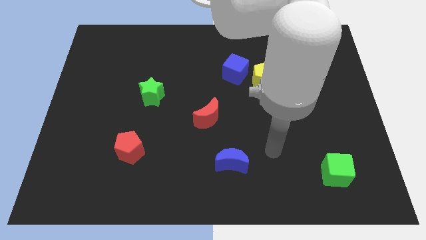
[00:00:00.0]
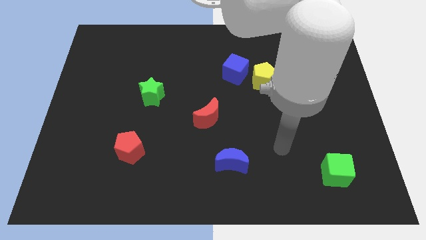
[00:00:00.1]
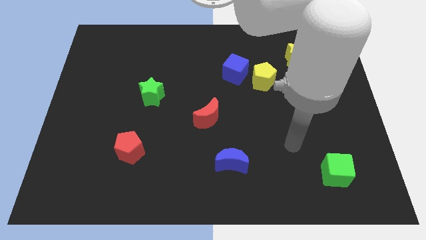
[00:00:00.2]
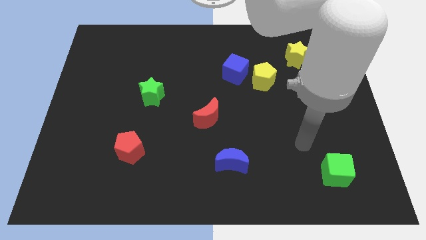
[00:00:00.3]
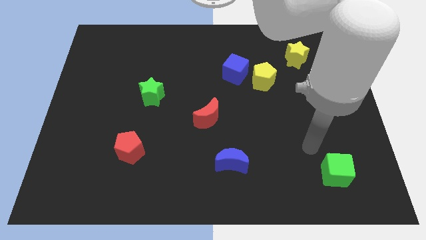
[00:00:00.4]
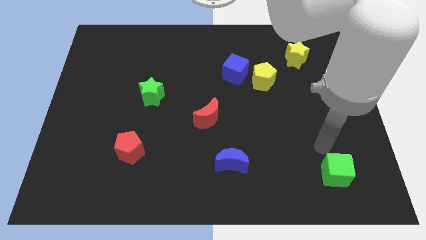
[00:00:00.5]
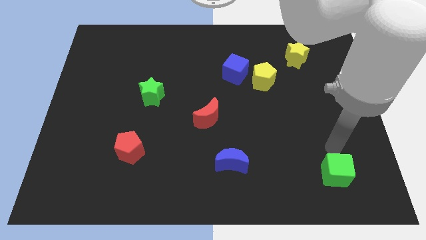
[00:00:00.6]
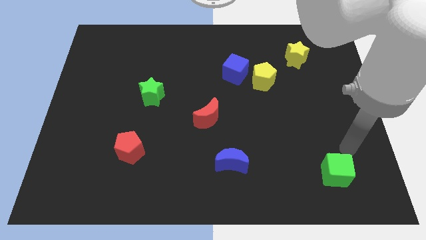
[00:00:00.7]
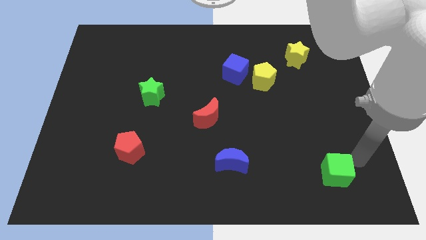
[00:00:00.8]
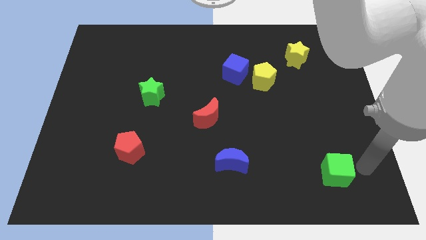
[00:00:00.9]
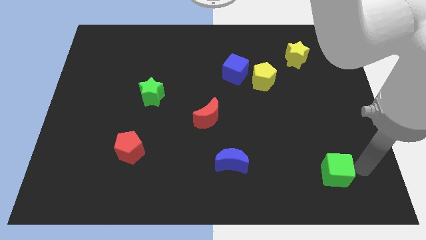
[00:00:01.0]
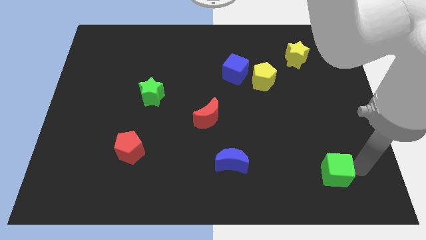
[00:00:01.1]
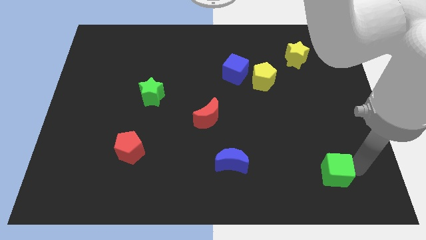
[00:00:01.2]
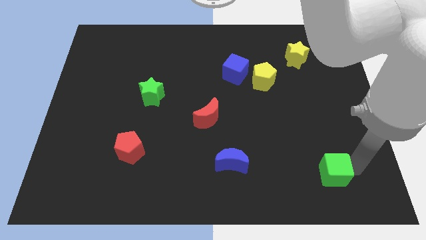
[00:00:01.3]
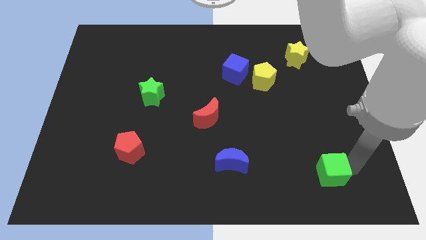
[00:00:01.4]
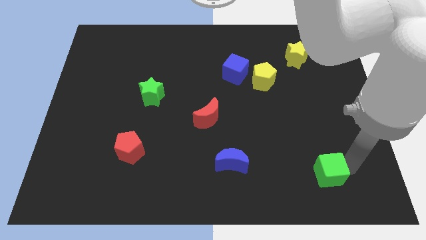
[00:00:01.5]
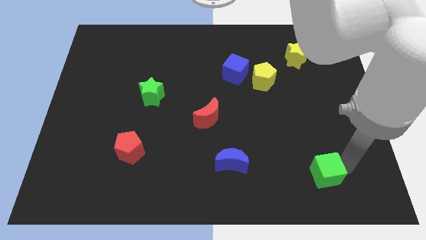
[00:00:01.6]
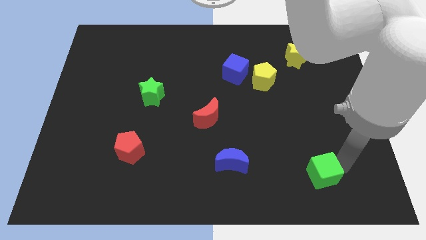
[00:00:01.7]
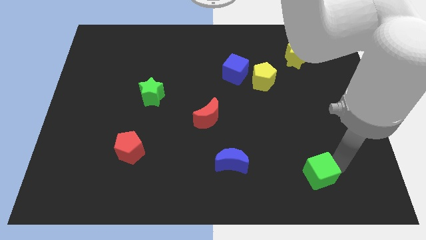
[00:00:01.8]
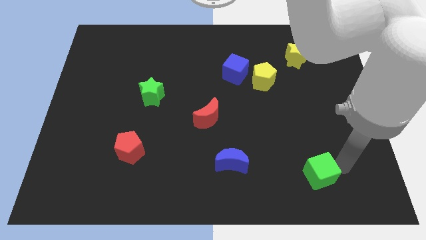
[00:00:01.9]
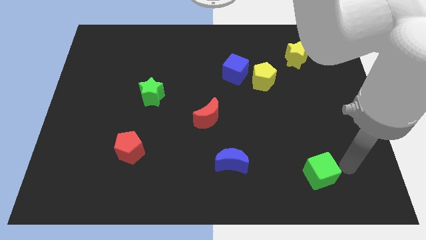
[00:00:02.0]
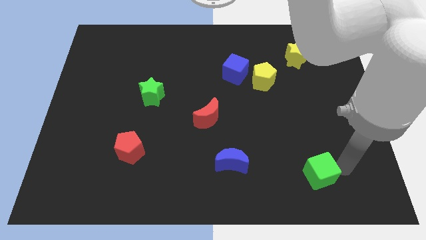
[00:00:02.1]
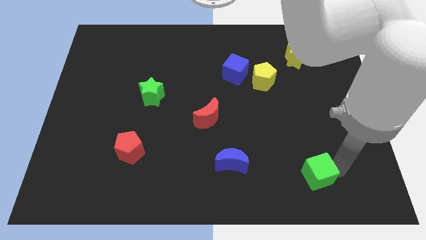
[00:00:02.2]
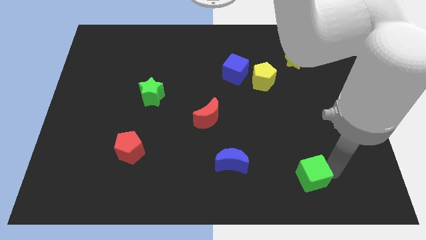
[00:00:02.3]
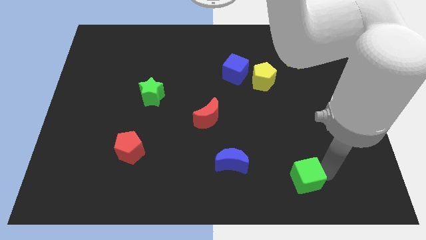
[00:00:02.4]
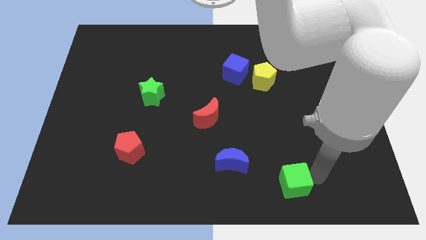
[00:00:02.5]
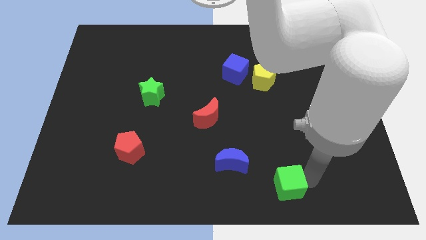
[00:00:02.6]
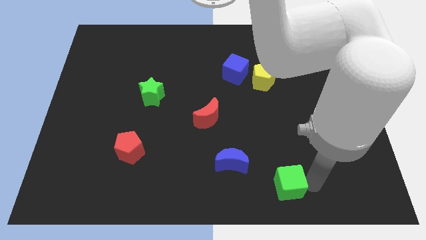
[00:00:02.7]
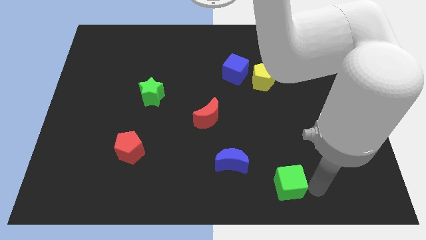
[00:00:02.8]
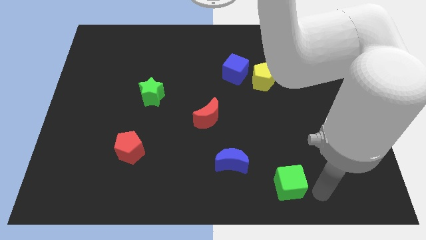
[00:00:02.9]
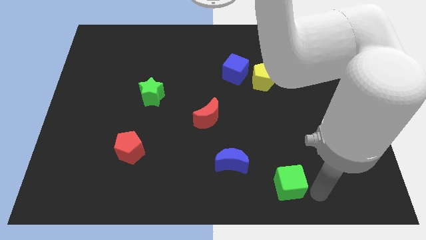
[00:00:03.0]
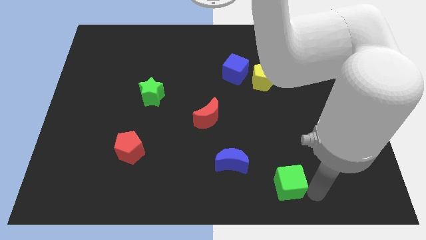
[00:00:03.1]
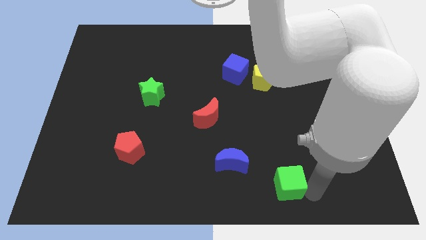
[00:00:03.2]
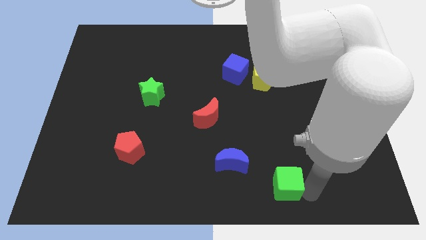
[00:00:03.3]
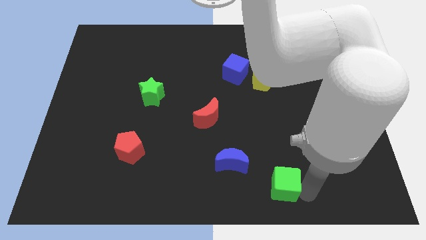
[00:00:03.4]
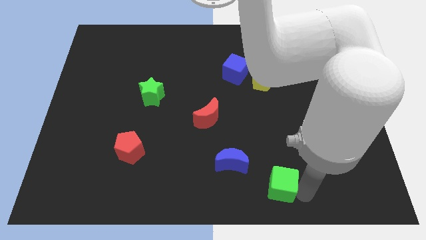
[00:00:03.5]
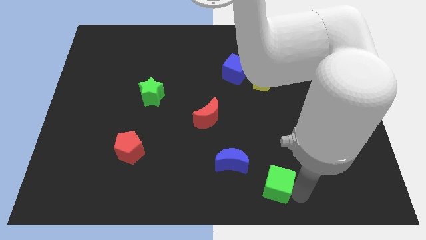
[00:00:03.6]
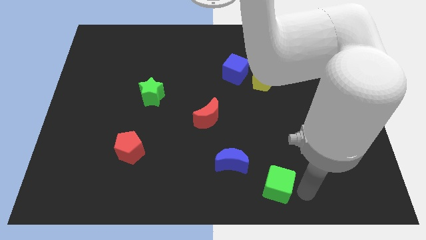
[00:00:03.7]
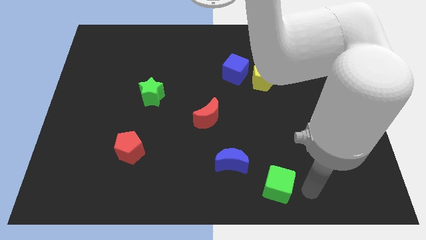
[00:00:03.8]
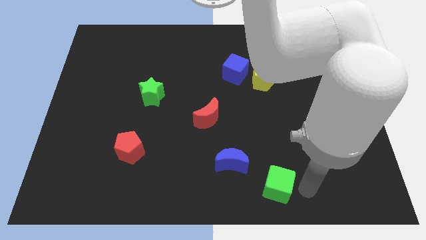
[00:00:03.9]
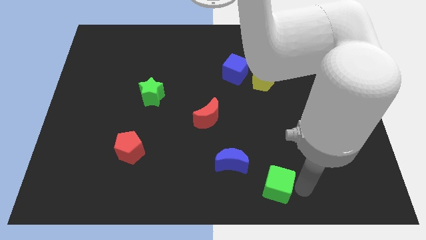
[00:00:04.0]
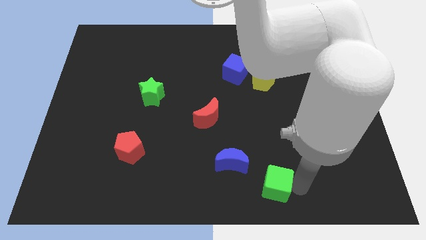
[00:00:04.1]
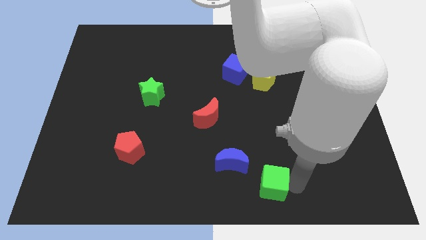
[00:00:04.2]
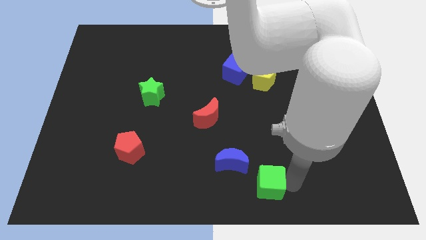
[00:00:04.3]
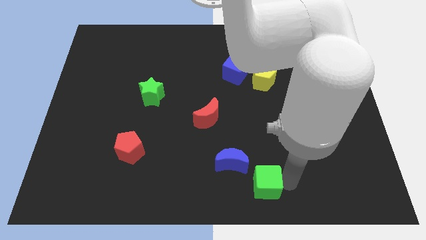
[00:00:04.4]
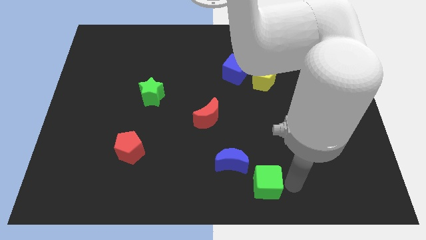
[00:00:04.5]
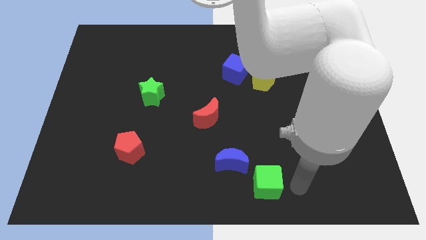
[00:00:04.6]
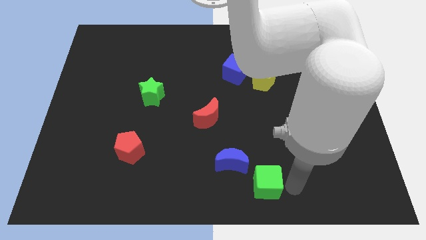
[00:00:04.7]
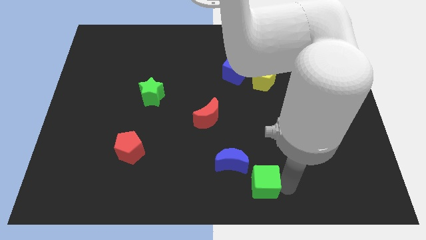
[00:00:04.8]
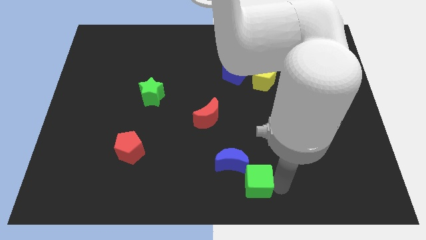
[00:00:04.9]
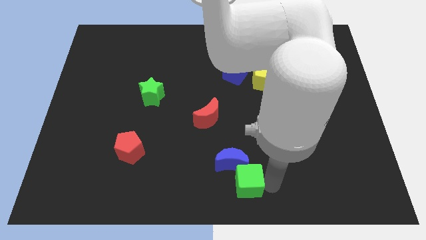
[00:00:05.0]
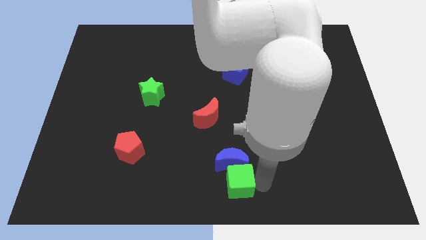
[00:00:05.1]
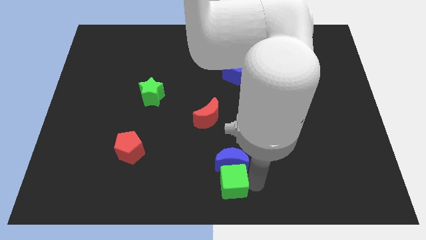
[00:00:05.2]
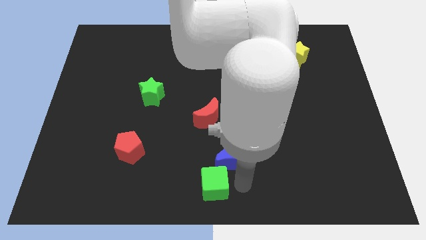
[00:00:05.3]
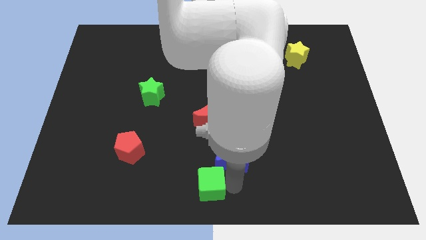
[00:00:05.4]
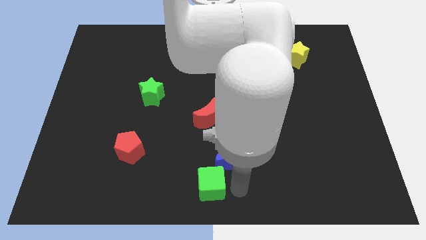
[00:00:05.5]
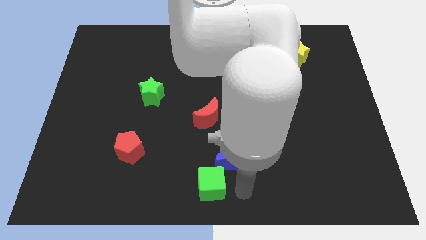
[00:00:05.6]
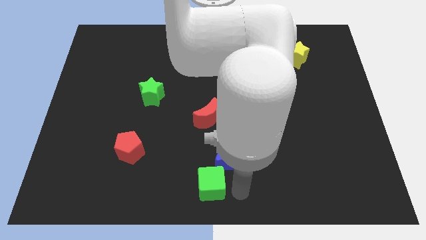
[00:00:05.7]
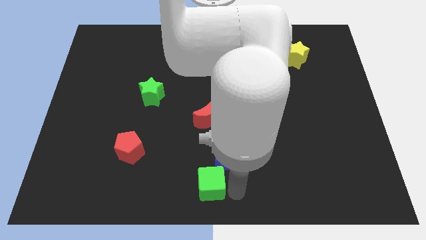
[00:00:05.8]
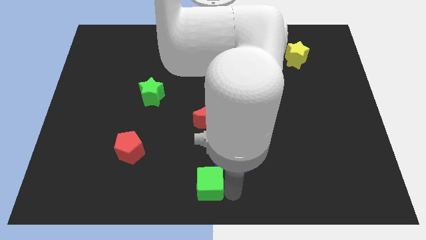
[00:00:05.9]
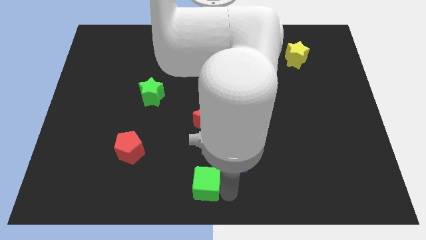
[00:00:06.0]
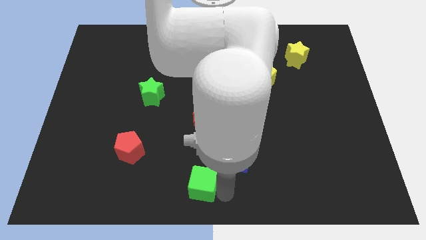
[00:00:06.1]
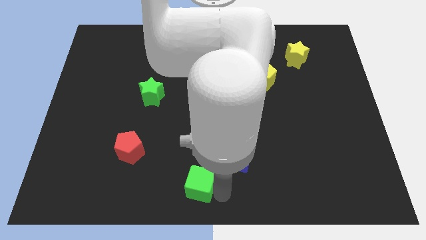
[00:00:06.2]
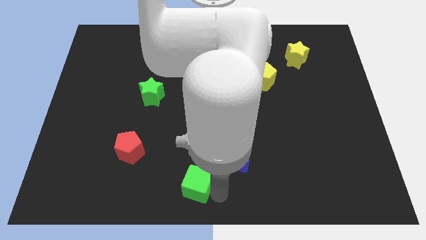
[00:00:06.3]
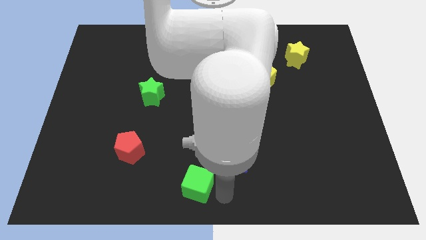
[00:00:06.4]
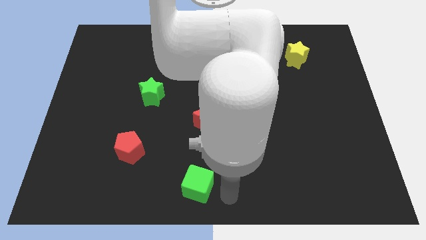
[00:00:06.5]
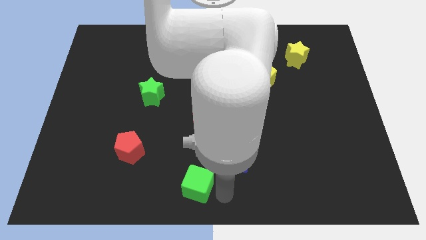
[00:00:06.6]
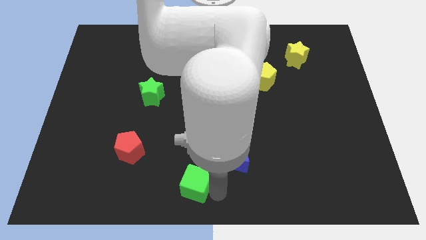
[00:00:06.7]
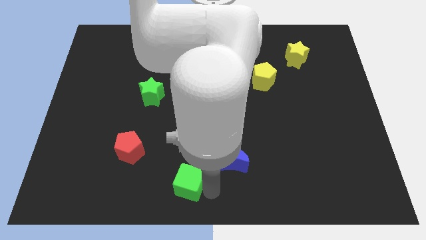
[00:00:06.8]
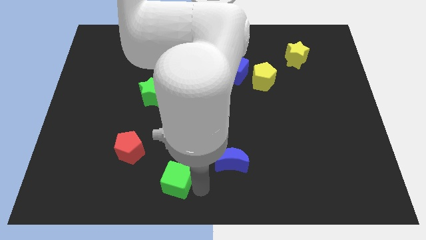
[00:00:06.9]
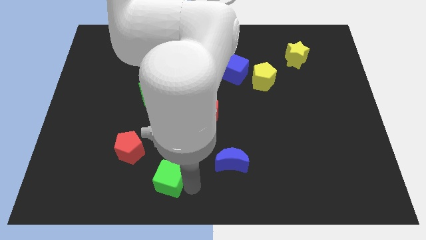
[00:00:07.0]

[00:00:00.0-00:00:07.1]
move the green cube diagonally down and to the right of the red pentagon
